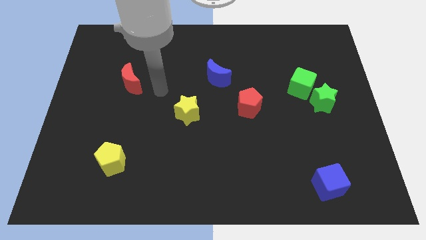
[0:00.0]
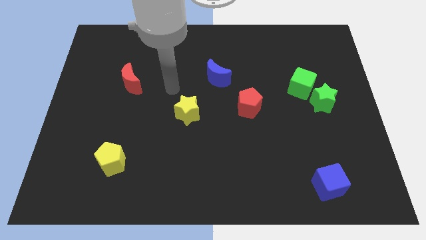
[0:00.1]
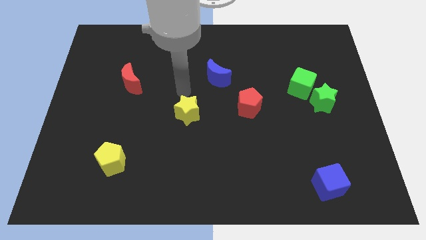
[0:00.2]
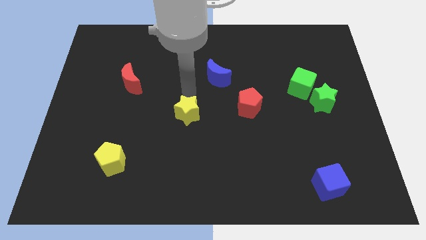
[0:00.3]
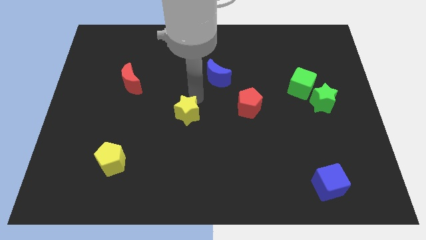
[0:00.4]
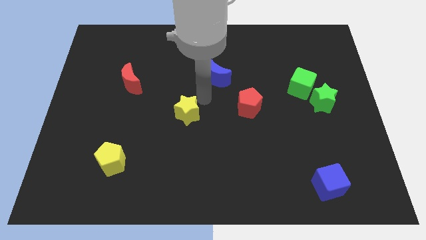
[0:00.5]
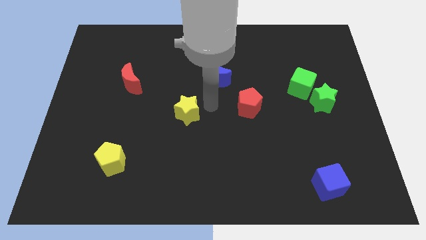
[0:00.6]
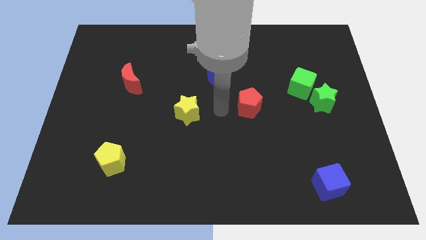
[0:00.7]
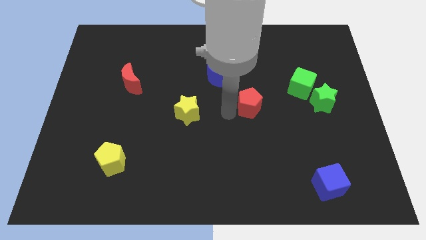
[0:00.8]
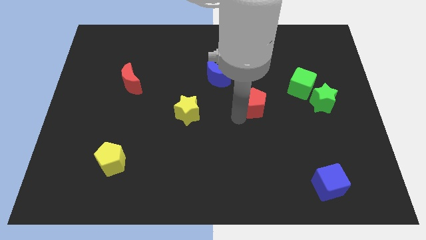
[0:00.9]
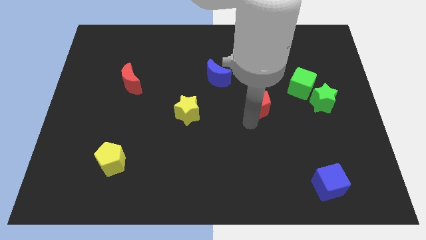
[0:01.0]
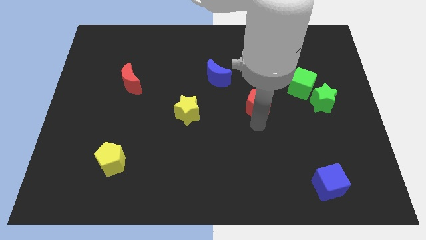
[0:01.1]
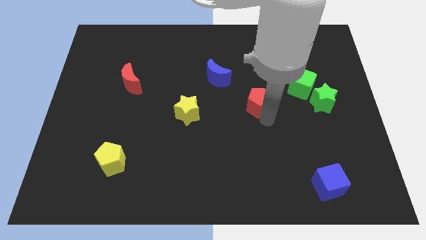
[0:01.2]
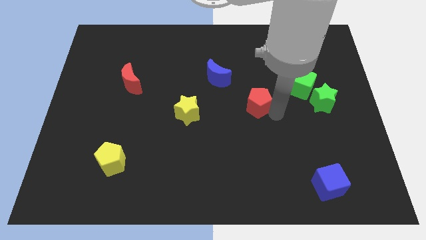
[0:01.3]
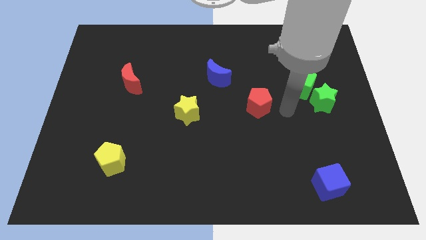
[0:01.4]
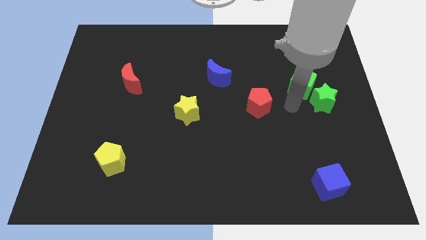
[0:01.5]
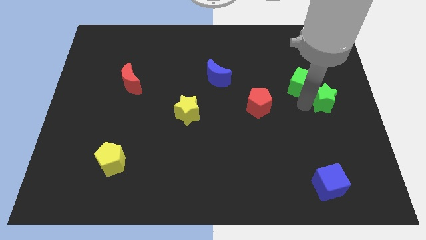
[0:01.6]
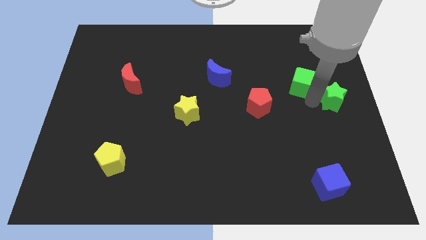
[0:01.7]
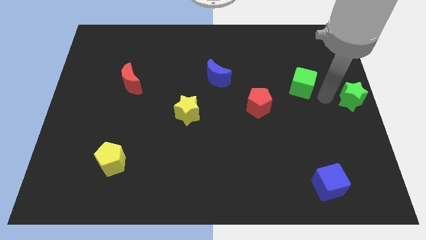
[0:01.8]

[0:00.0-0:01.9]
pull the green cube apart from the green star

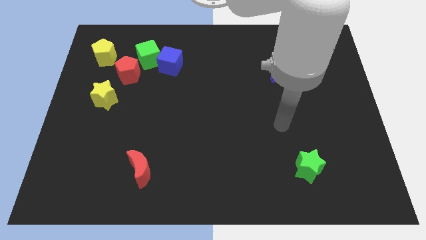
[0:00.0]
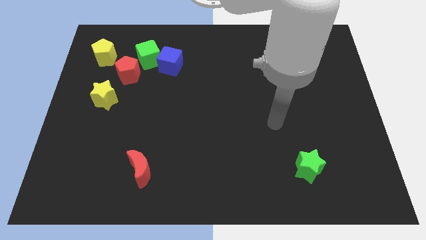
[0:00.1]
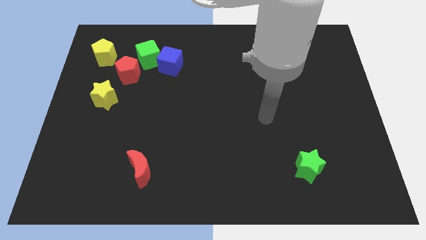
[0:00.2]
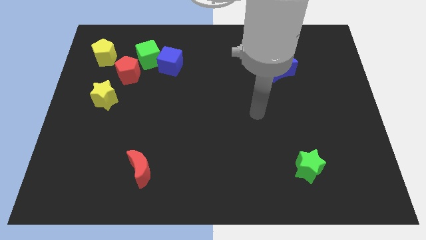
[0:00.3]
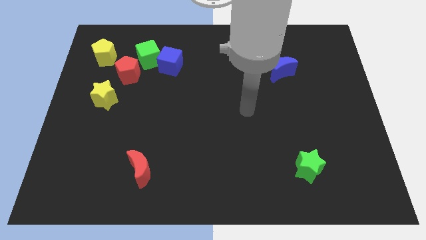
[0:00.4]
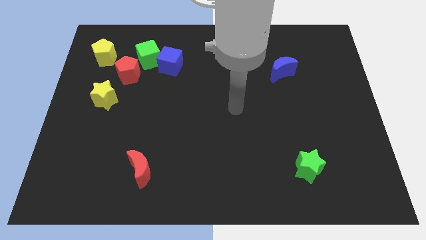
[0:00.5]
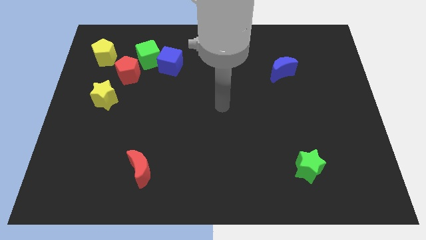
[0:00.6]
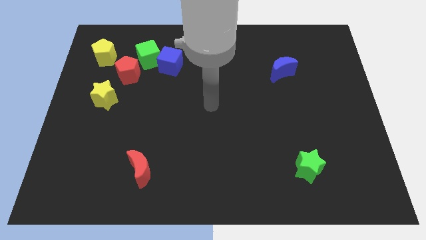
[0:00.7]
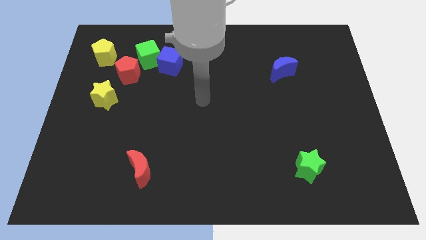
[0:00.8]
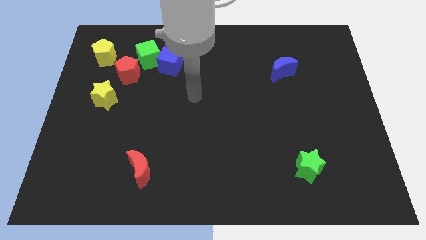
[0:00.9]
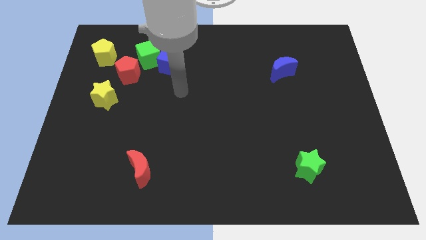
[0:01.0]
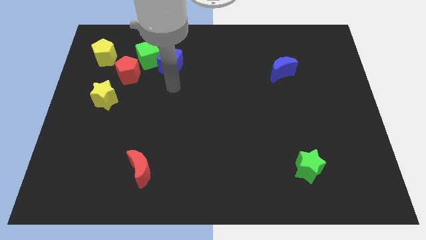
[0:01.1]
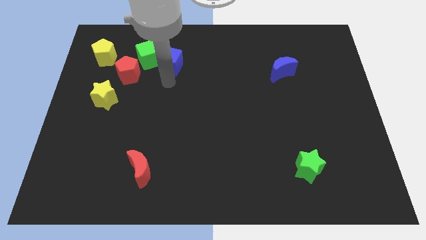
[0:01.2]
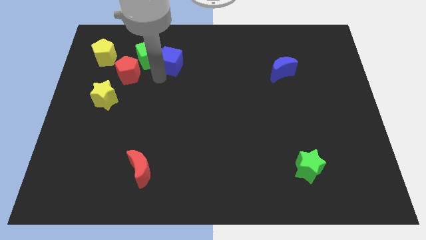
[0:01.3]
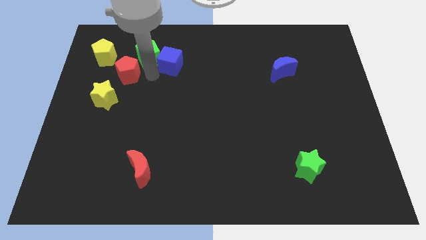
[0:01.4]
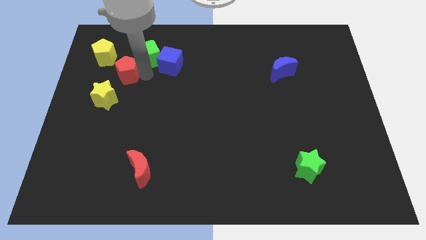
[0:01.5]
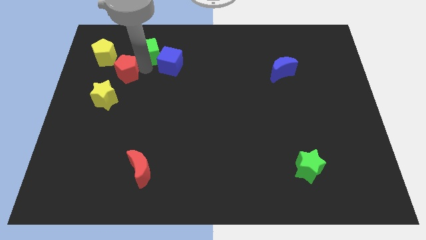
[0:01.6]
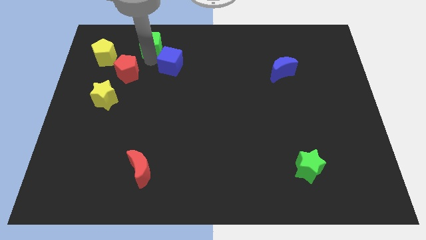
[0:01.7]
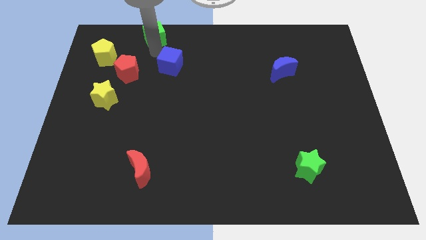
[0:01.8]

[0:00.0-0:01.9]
move the blue cube away from the green cube

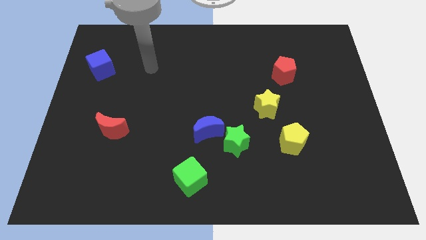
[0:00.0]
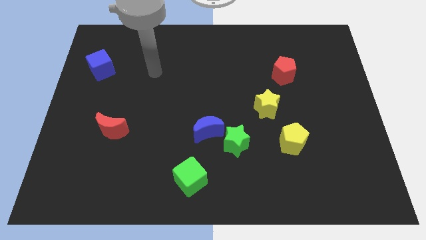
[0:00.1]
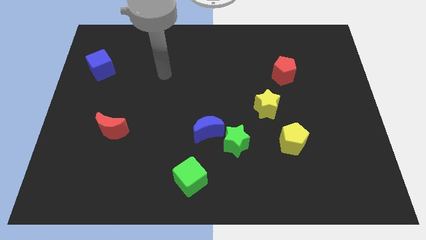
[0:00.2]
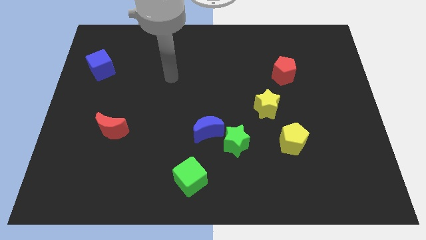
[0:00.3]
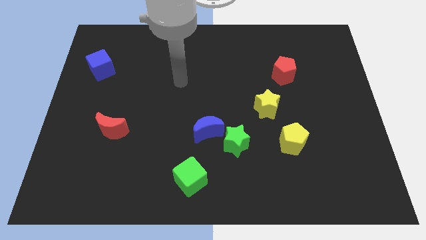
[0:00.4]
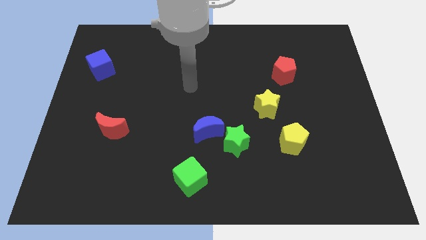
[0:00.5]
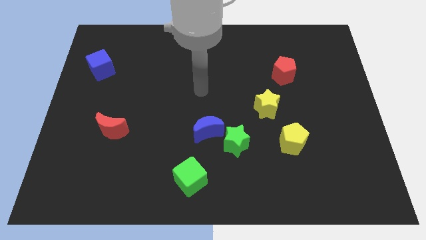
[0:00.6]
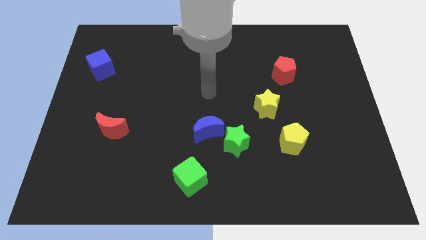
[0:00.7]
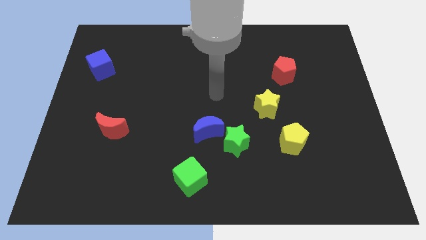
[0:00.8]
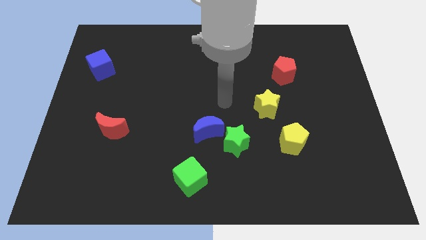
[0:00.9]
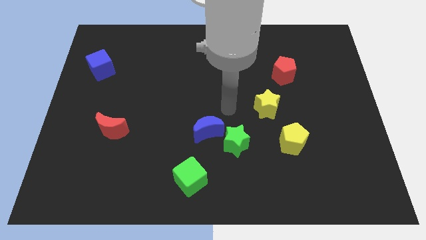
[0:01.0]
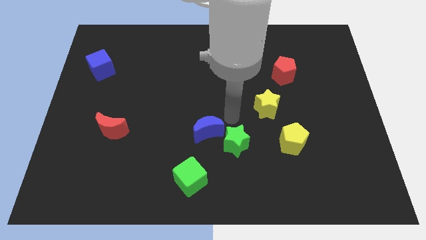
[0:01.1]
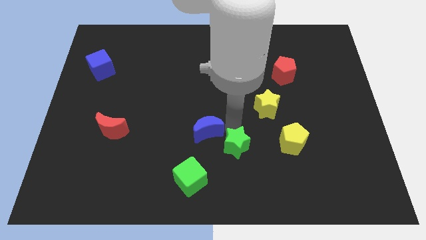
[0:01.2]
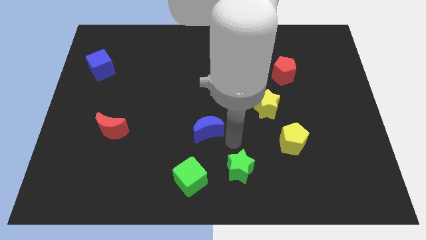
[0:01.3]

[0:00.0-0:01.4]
pull the blue moon apart from the green star

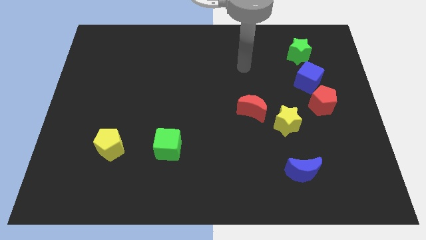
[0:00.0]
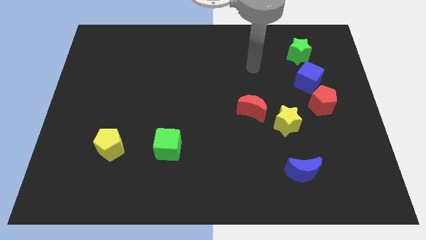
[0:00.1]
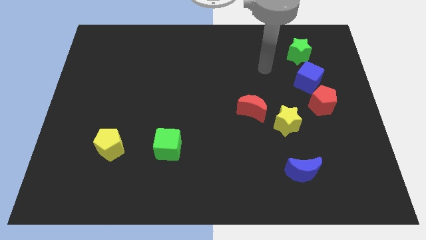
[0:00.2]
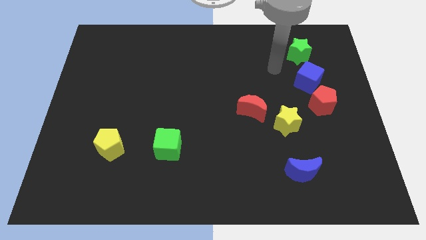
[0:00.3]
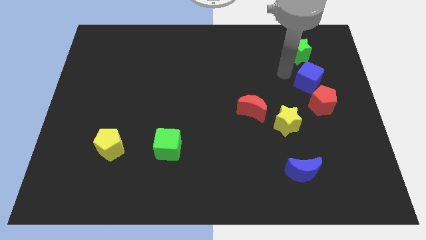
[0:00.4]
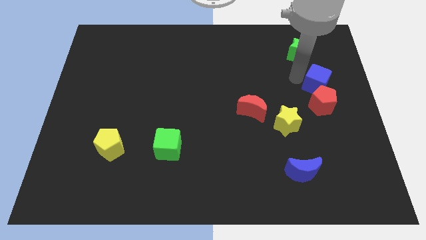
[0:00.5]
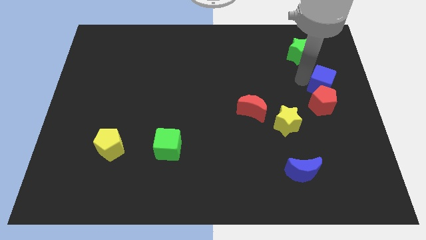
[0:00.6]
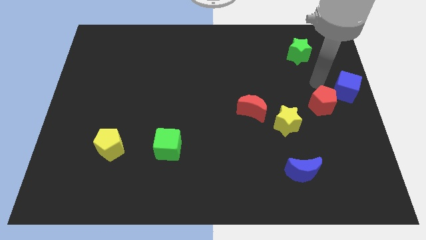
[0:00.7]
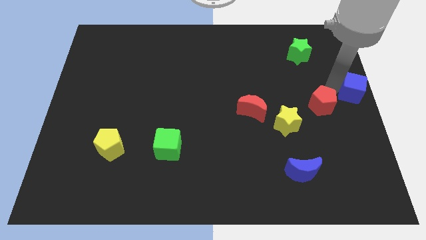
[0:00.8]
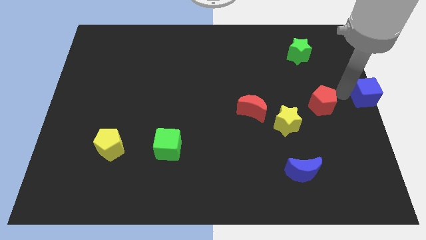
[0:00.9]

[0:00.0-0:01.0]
move the red pentagon away from the blue cube

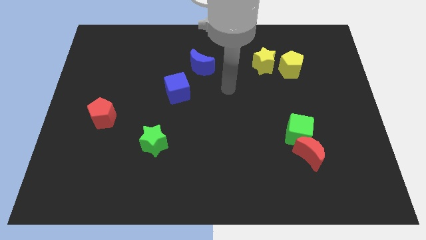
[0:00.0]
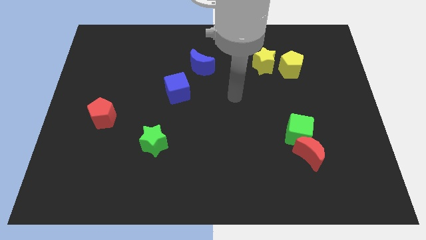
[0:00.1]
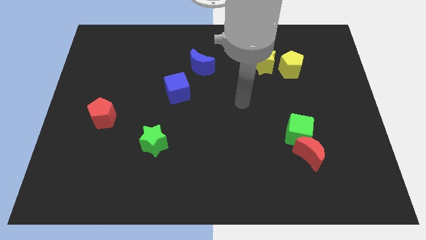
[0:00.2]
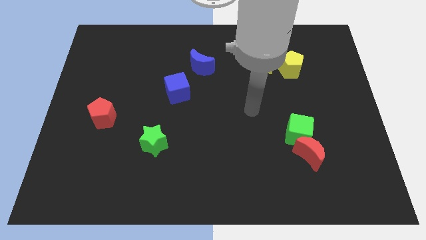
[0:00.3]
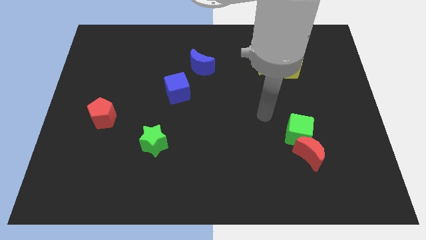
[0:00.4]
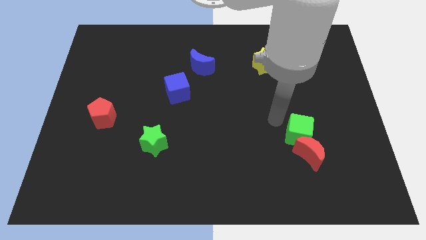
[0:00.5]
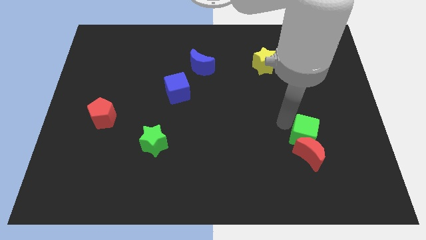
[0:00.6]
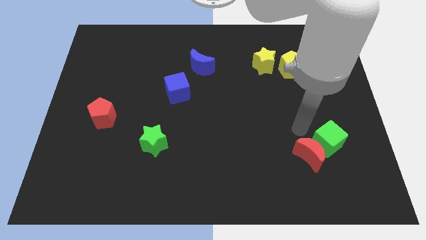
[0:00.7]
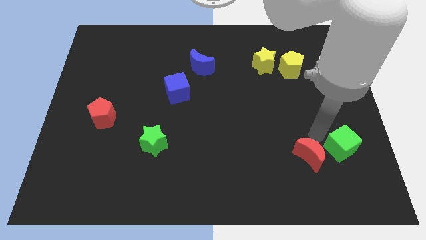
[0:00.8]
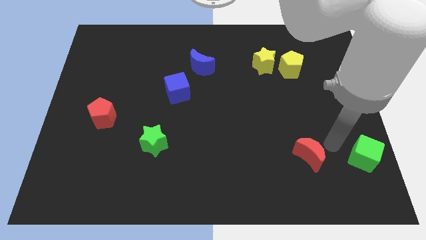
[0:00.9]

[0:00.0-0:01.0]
separate the red moon from the green cube

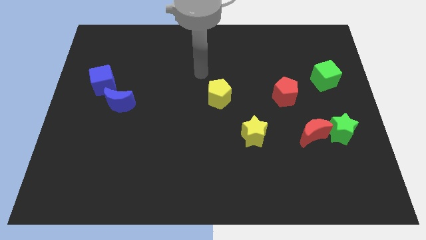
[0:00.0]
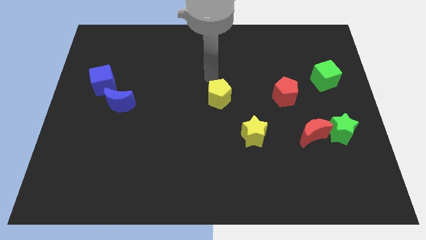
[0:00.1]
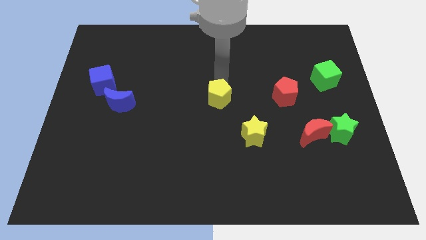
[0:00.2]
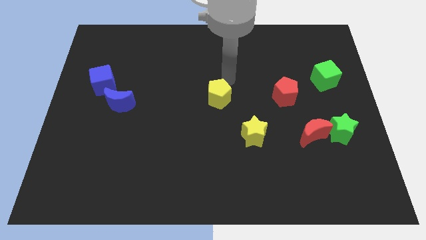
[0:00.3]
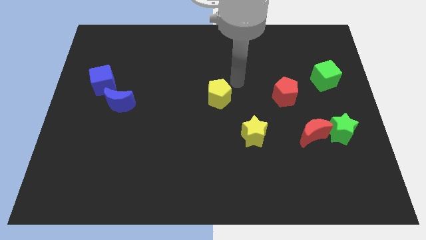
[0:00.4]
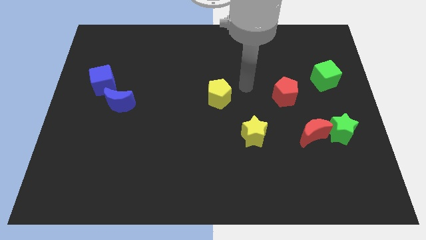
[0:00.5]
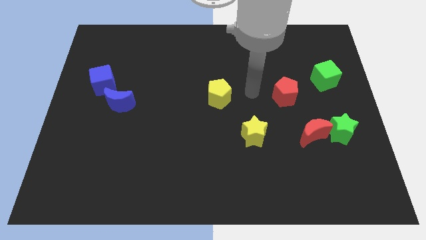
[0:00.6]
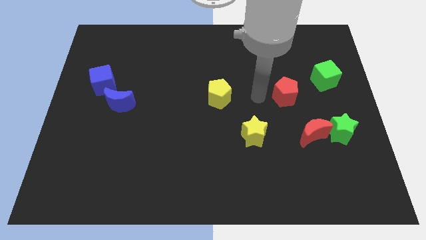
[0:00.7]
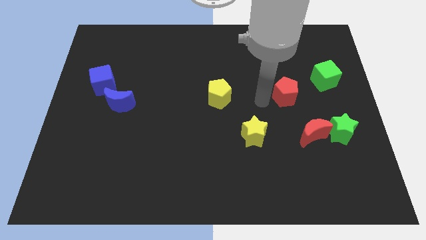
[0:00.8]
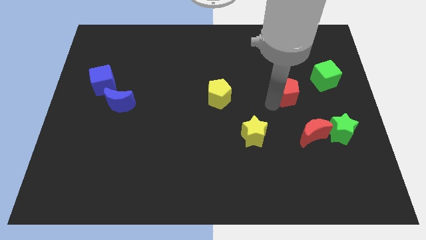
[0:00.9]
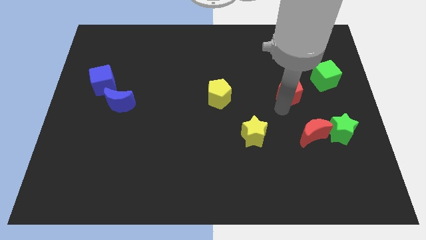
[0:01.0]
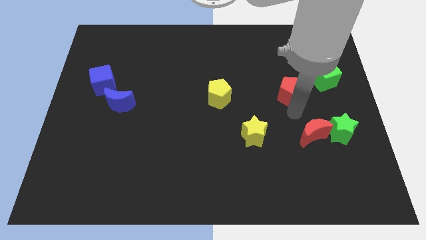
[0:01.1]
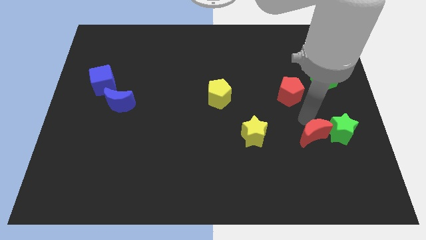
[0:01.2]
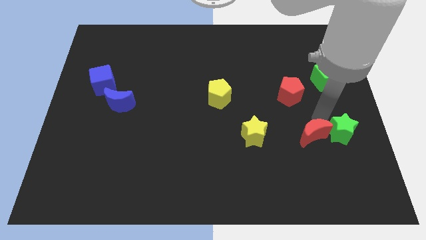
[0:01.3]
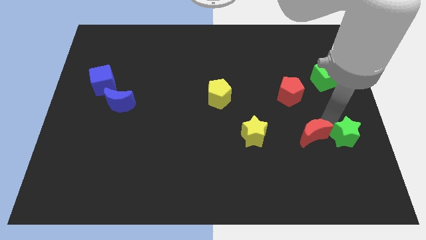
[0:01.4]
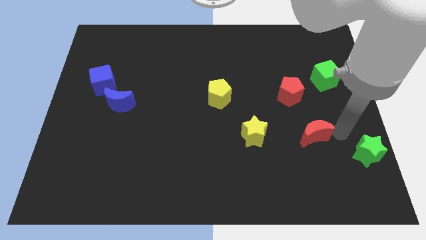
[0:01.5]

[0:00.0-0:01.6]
separate the red moon from the green star

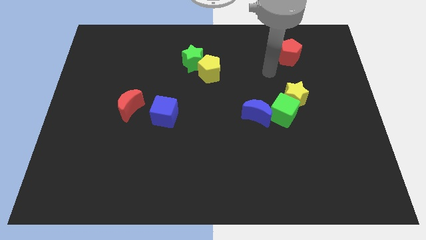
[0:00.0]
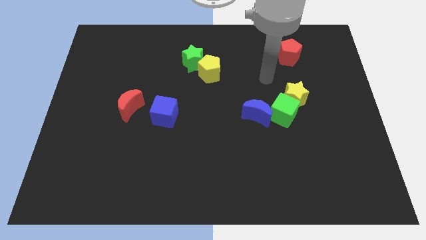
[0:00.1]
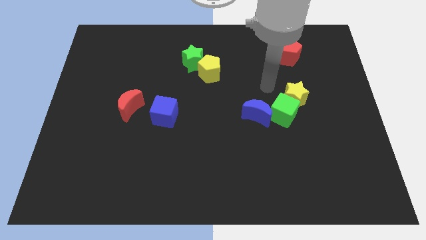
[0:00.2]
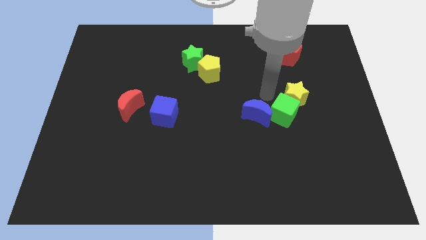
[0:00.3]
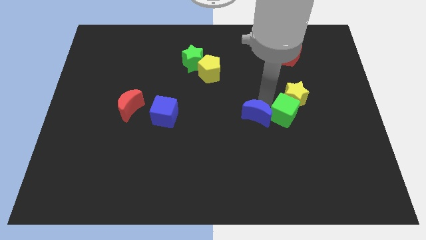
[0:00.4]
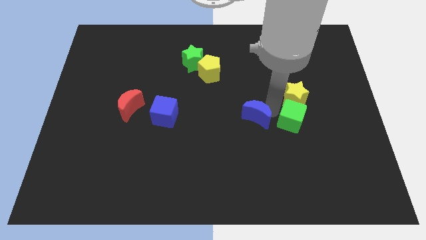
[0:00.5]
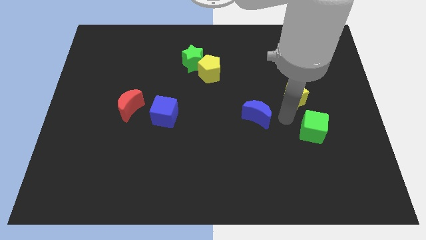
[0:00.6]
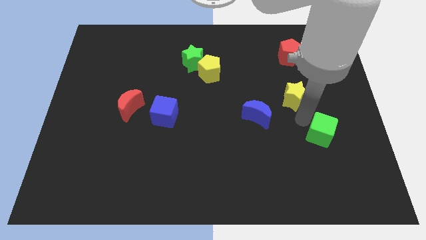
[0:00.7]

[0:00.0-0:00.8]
pull the yellow star apart from the green cube
